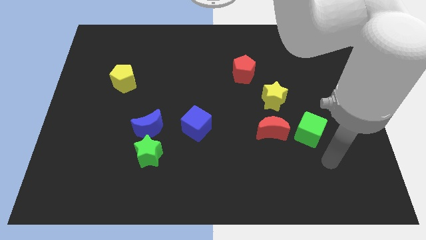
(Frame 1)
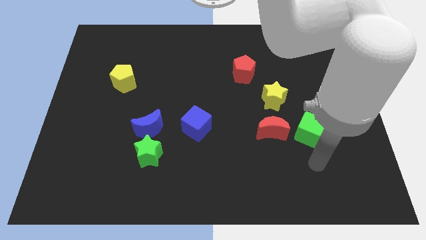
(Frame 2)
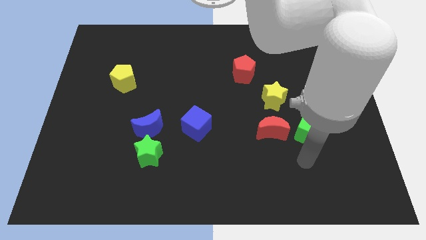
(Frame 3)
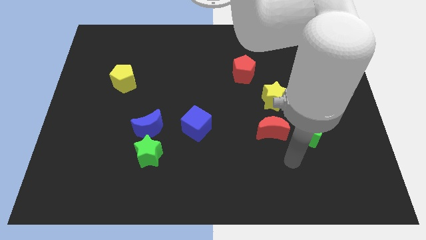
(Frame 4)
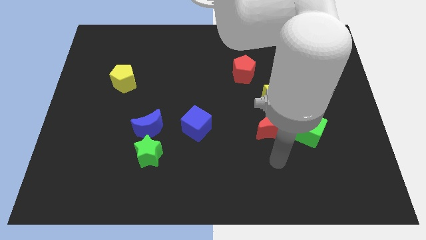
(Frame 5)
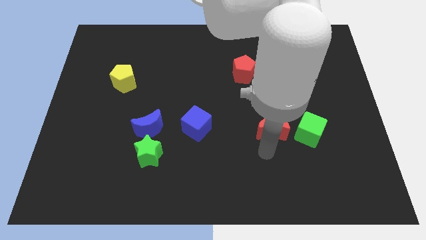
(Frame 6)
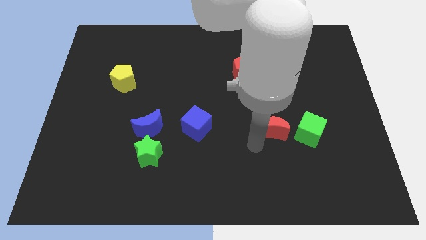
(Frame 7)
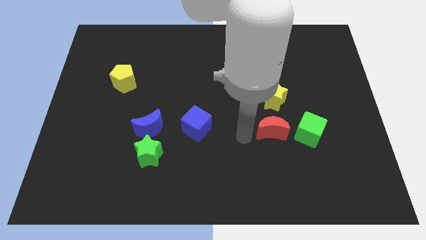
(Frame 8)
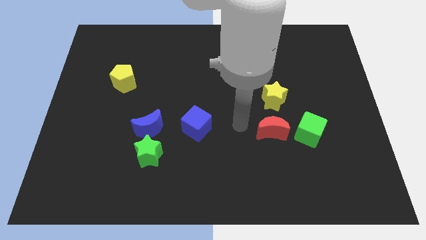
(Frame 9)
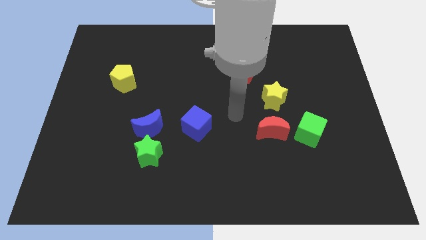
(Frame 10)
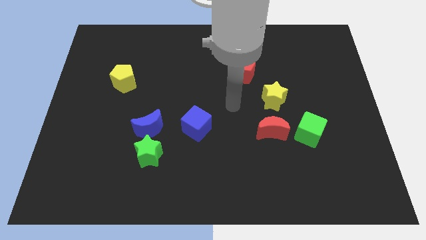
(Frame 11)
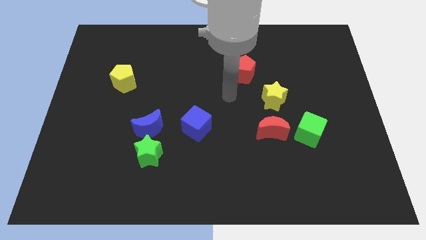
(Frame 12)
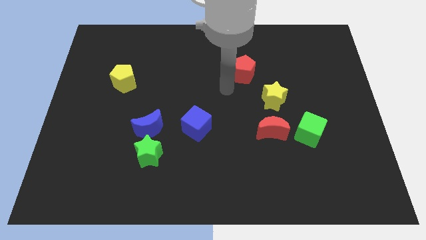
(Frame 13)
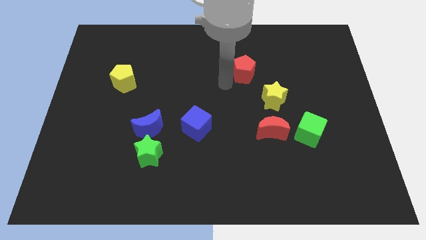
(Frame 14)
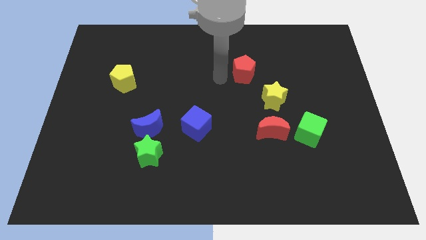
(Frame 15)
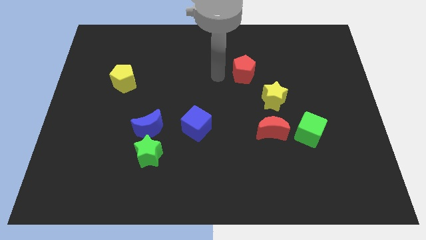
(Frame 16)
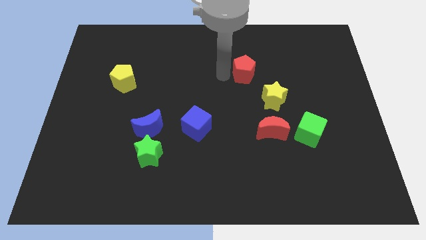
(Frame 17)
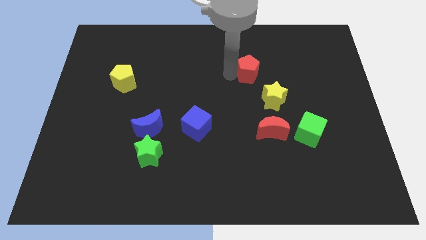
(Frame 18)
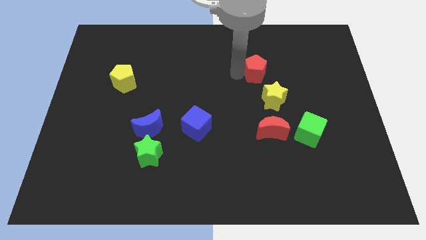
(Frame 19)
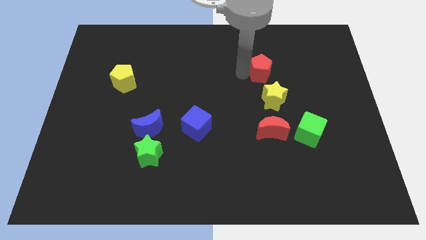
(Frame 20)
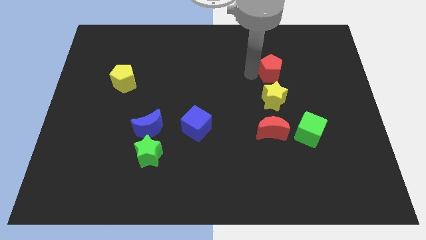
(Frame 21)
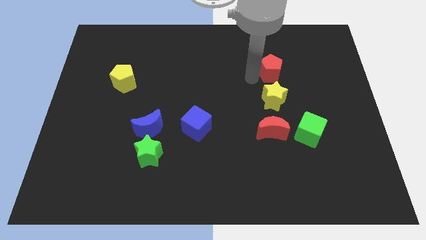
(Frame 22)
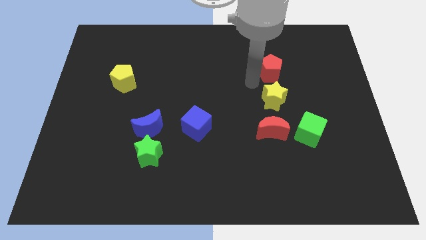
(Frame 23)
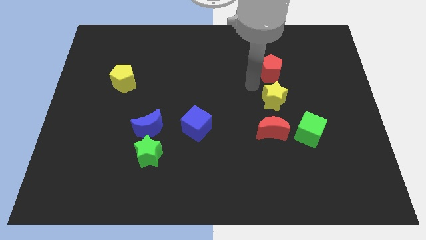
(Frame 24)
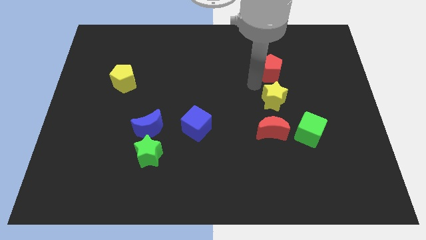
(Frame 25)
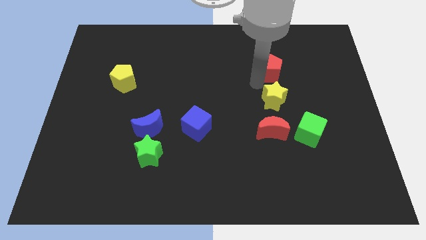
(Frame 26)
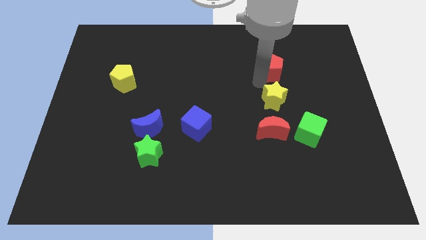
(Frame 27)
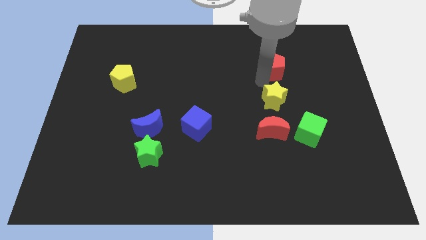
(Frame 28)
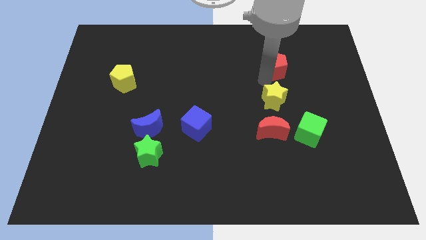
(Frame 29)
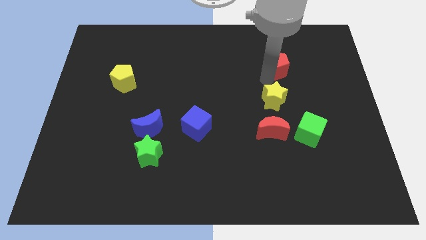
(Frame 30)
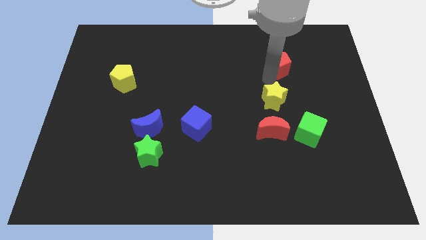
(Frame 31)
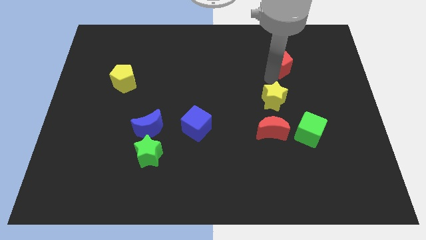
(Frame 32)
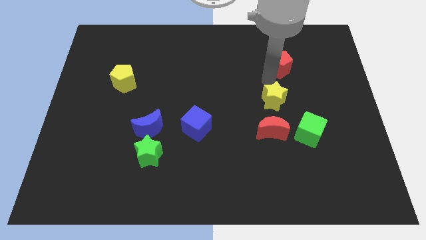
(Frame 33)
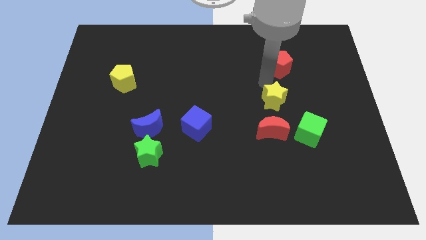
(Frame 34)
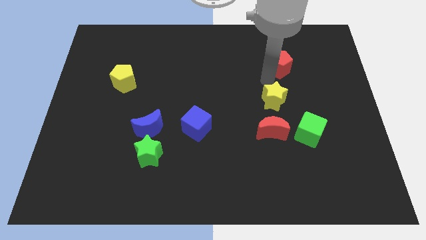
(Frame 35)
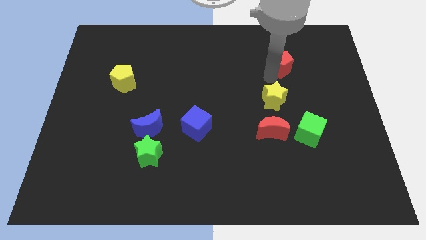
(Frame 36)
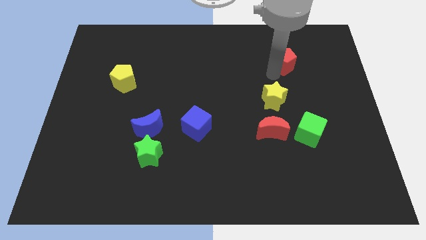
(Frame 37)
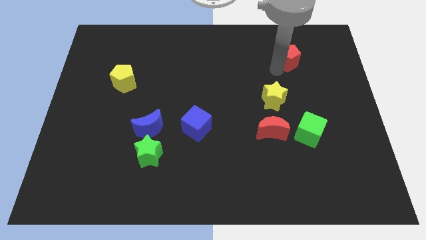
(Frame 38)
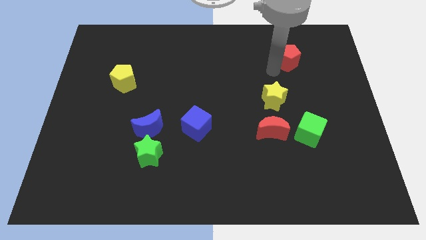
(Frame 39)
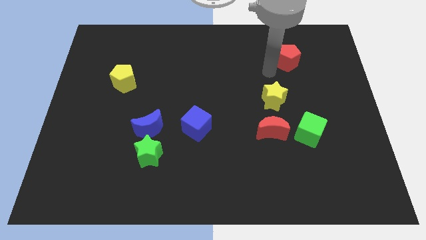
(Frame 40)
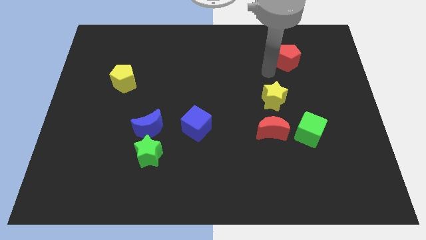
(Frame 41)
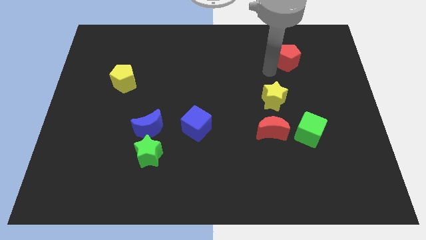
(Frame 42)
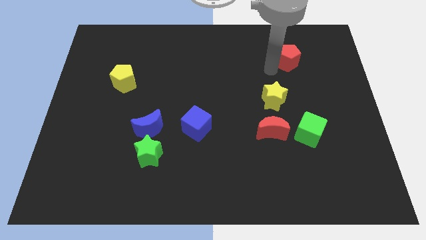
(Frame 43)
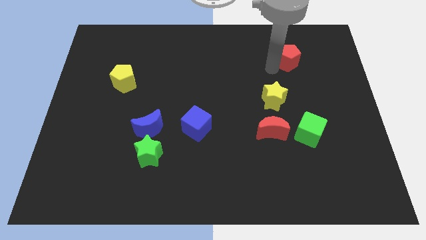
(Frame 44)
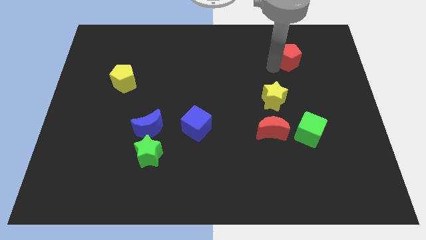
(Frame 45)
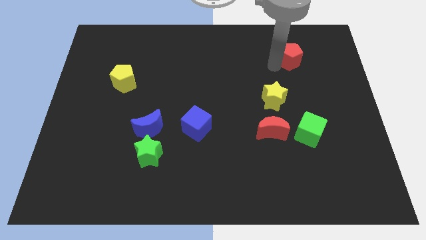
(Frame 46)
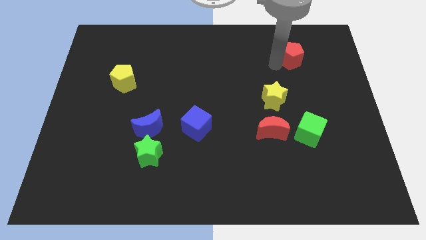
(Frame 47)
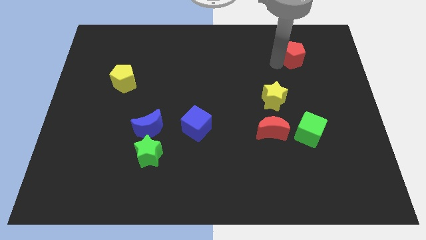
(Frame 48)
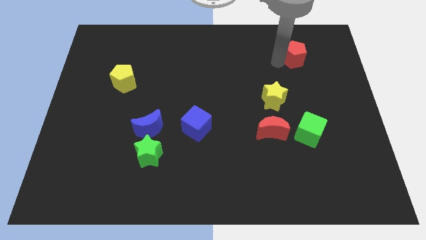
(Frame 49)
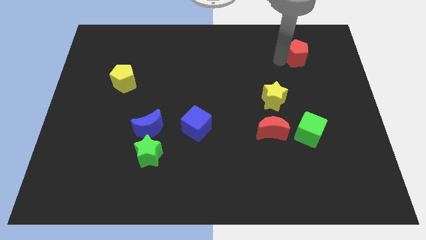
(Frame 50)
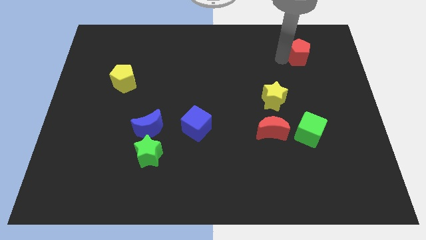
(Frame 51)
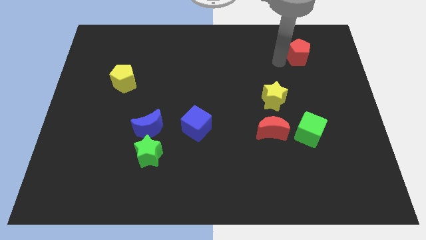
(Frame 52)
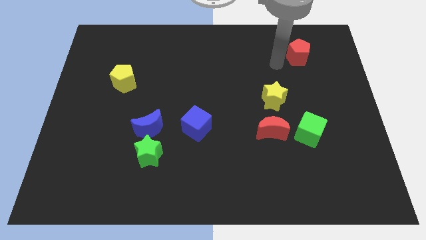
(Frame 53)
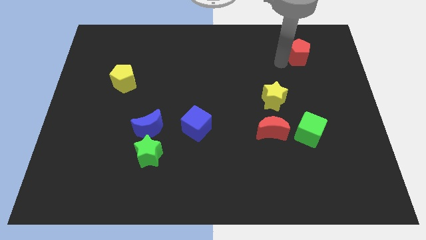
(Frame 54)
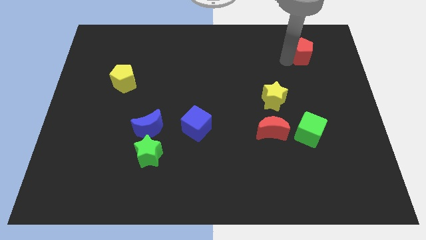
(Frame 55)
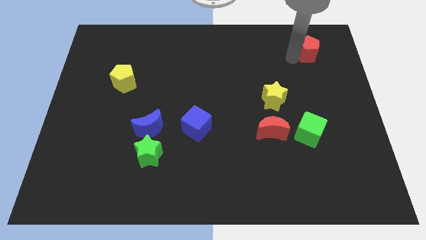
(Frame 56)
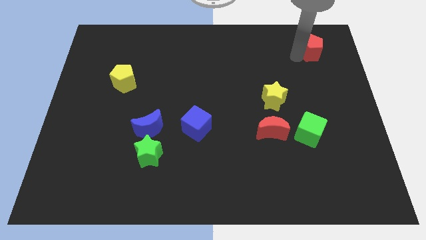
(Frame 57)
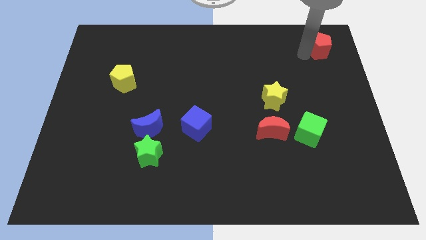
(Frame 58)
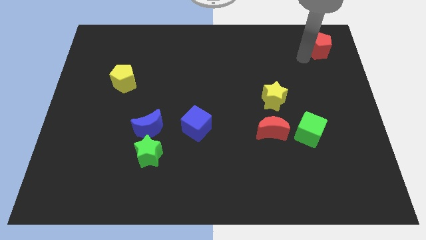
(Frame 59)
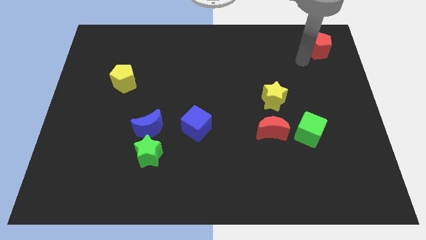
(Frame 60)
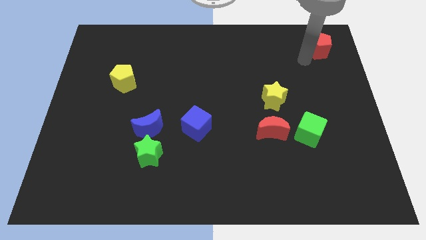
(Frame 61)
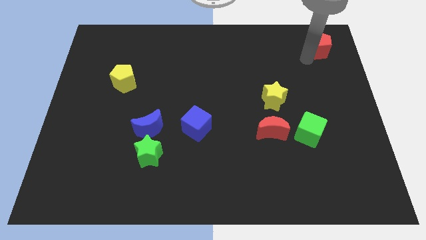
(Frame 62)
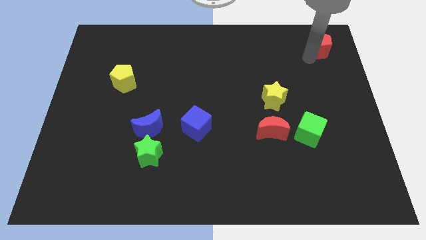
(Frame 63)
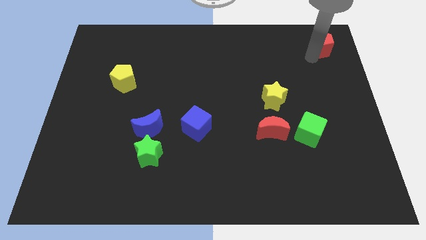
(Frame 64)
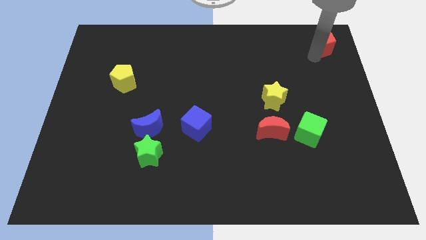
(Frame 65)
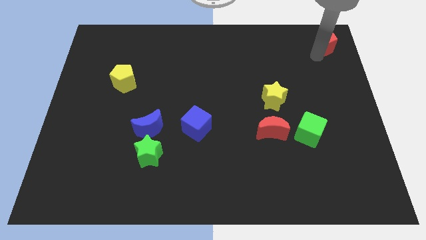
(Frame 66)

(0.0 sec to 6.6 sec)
slide the red pentagon to the top right
